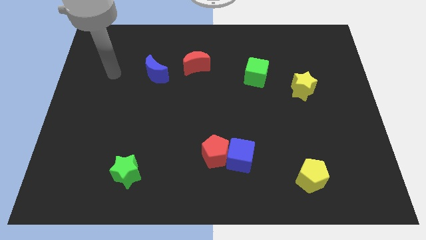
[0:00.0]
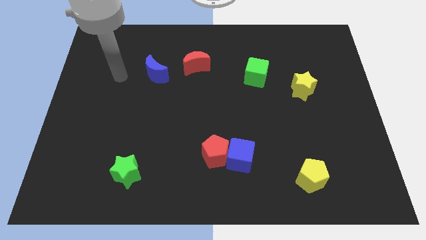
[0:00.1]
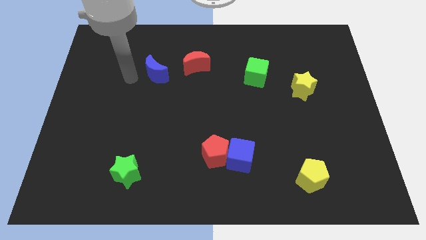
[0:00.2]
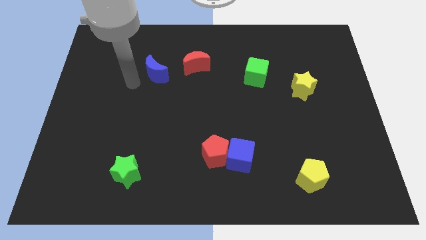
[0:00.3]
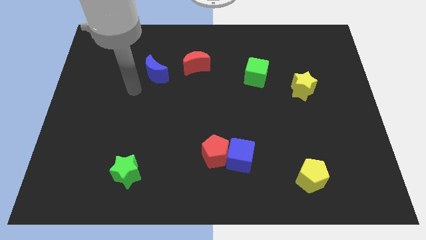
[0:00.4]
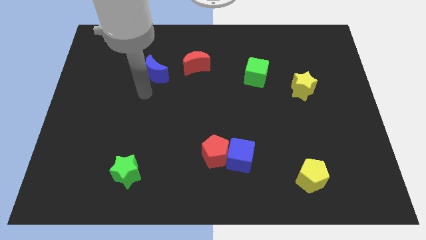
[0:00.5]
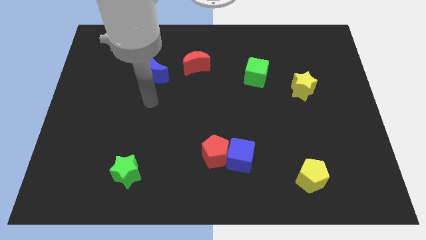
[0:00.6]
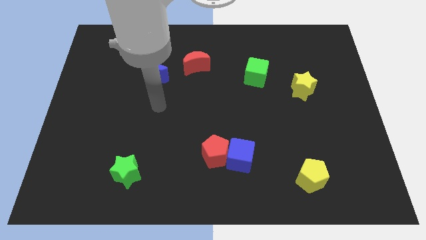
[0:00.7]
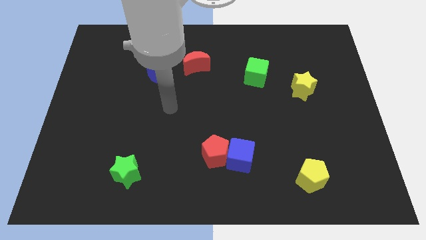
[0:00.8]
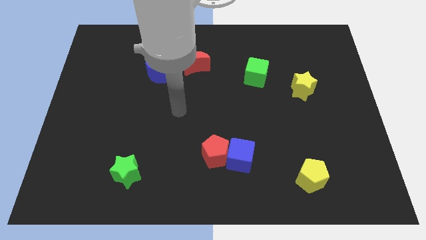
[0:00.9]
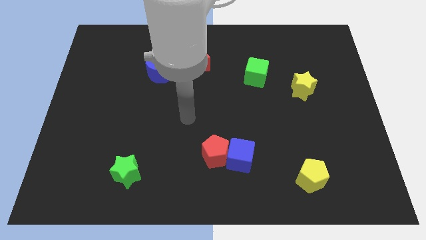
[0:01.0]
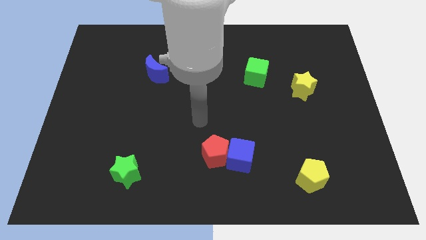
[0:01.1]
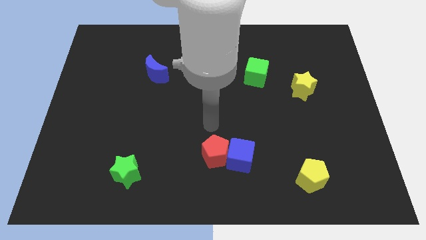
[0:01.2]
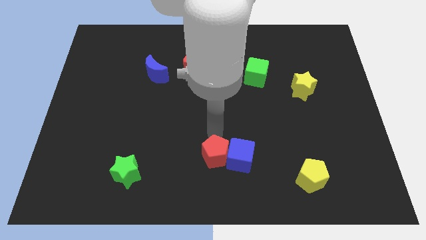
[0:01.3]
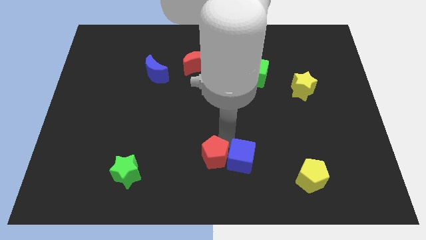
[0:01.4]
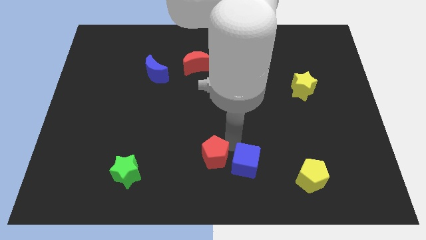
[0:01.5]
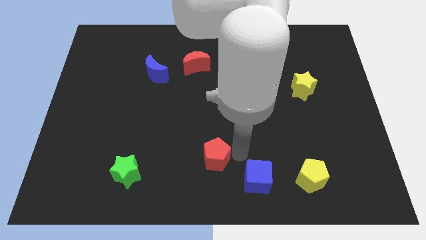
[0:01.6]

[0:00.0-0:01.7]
separate the red pentagon from the blue cube

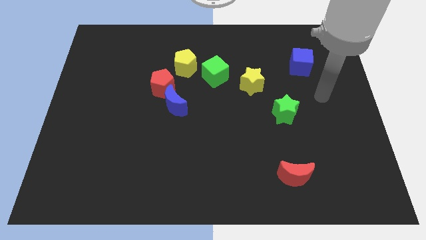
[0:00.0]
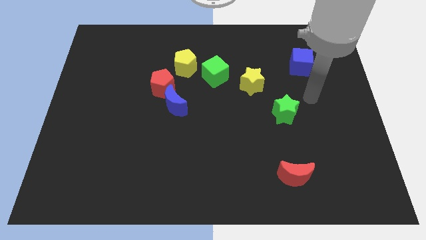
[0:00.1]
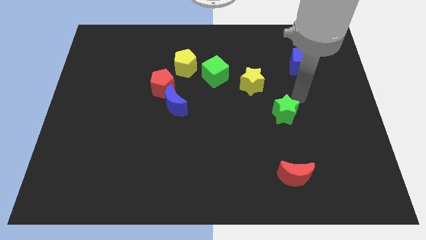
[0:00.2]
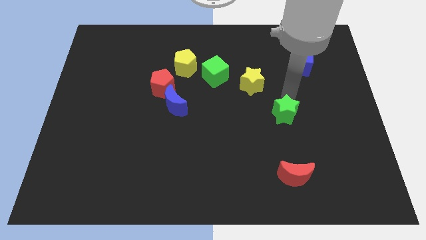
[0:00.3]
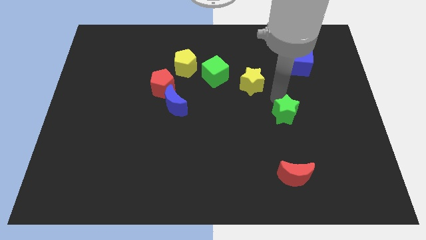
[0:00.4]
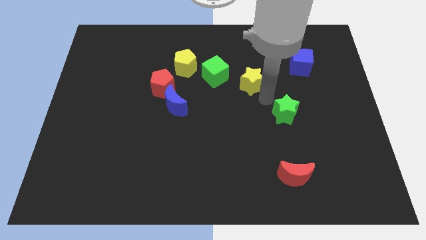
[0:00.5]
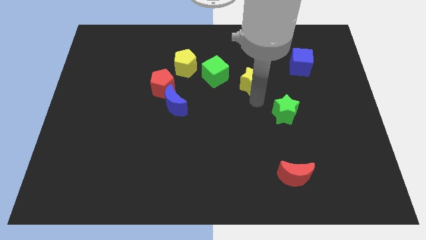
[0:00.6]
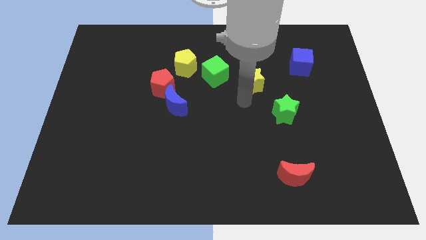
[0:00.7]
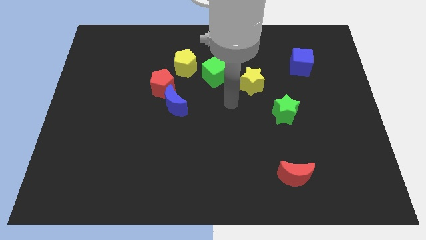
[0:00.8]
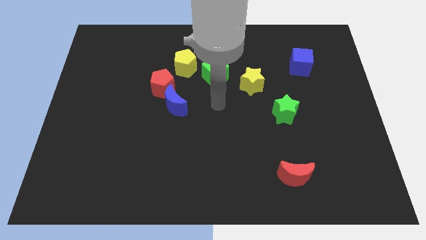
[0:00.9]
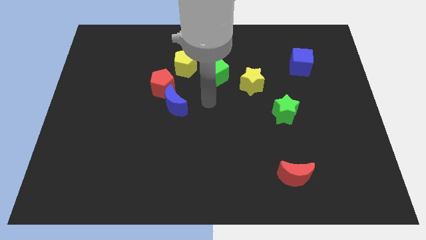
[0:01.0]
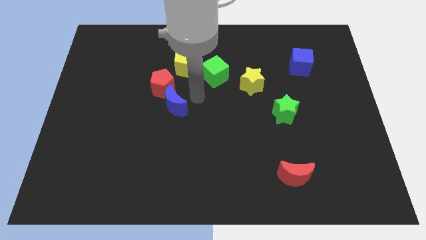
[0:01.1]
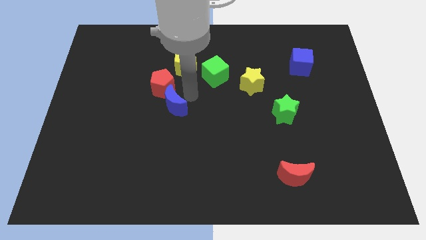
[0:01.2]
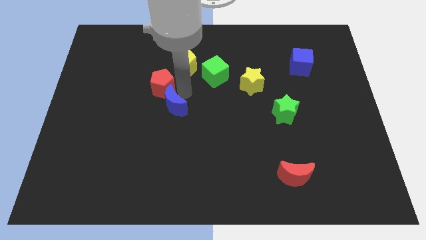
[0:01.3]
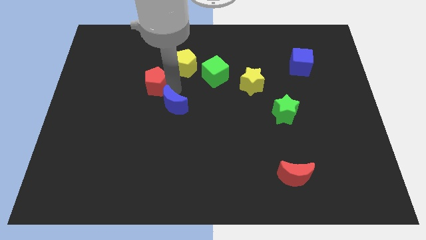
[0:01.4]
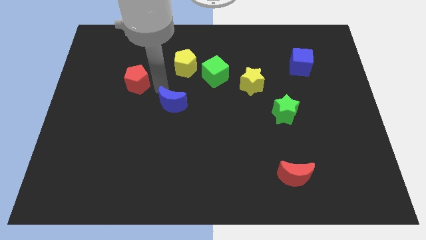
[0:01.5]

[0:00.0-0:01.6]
move the blue moon away from the red pentagon

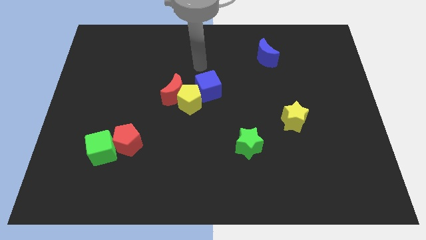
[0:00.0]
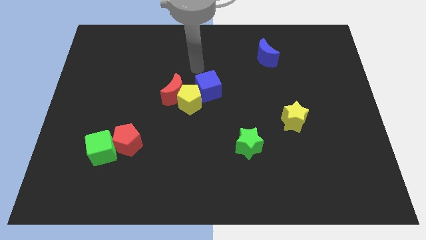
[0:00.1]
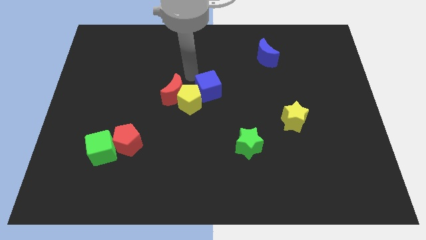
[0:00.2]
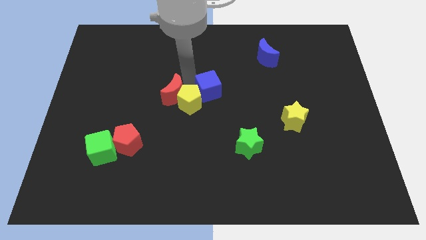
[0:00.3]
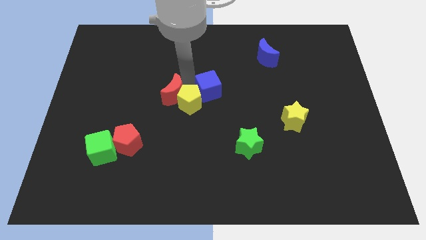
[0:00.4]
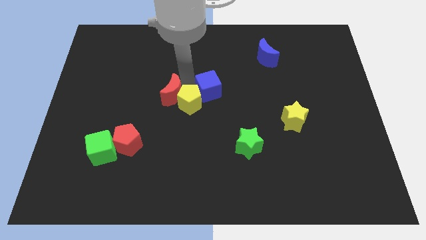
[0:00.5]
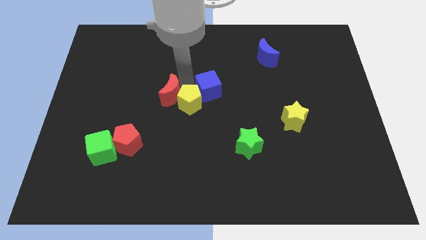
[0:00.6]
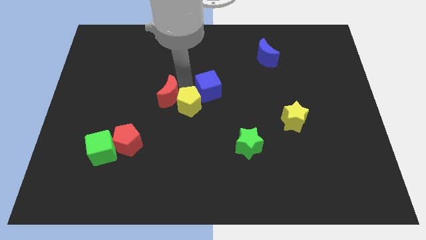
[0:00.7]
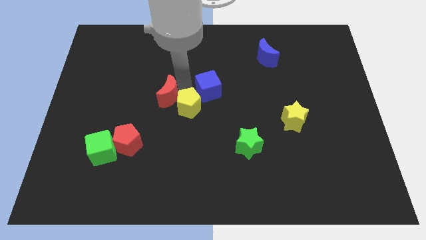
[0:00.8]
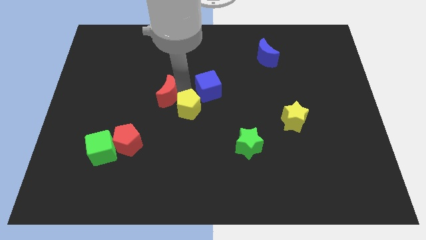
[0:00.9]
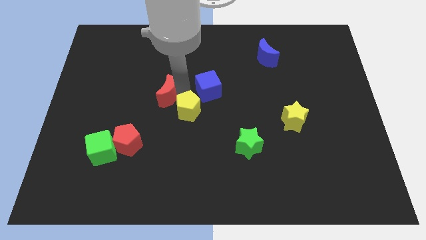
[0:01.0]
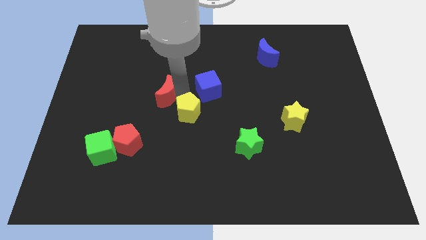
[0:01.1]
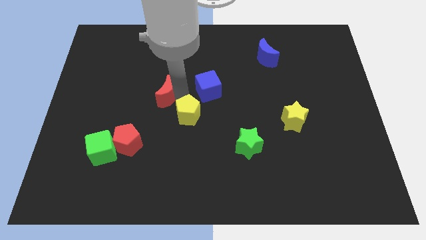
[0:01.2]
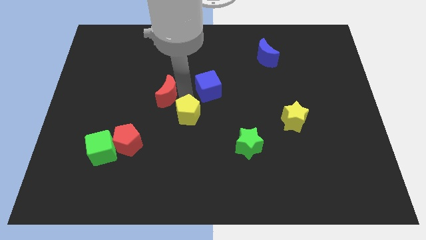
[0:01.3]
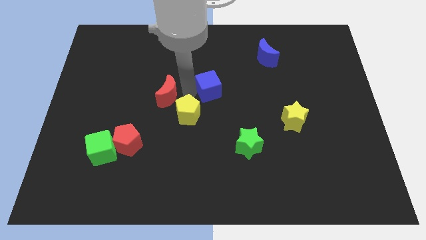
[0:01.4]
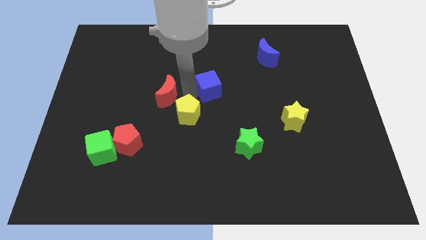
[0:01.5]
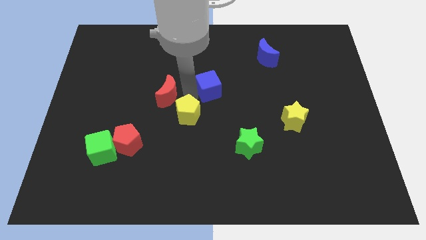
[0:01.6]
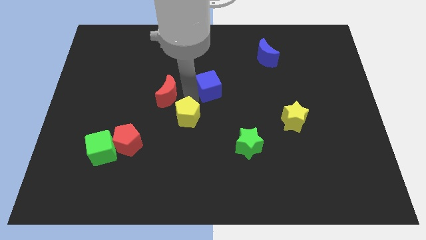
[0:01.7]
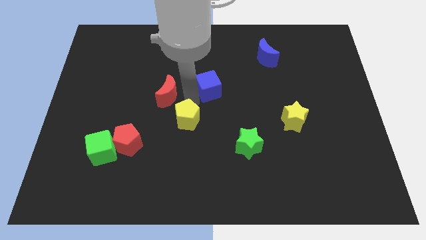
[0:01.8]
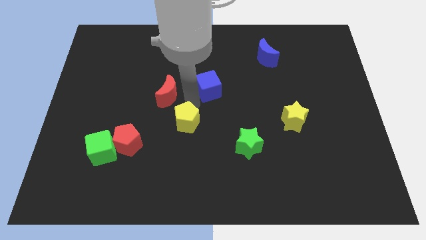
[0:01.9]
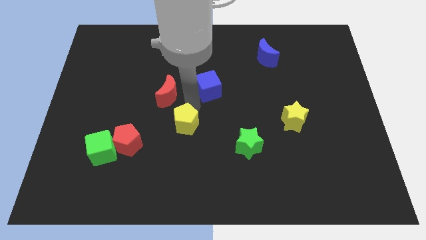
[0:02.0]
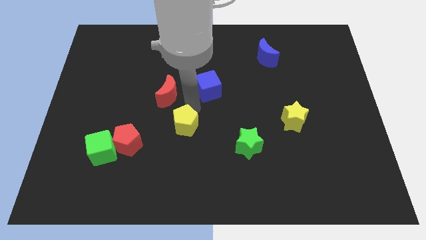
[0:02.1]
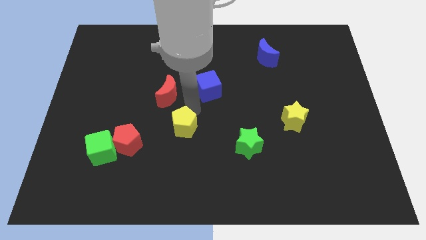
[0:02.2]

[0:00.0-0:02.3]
separate the yellow pentagon from the red moon and blue cube

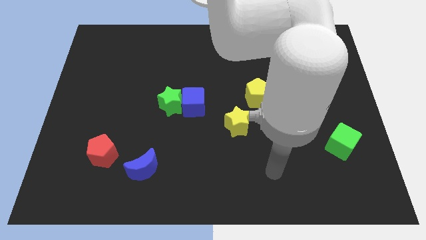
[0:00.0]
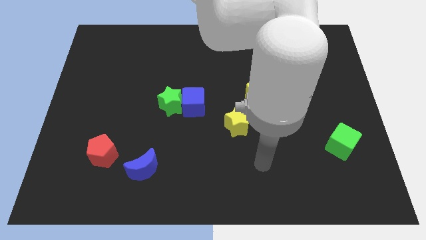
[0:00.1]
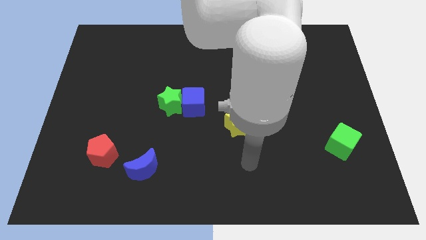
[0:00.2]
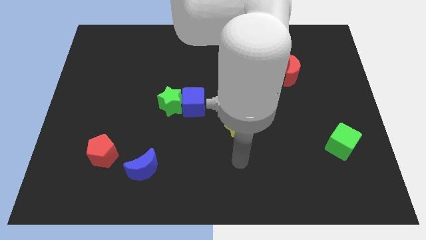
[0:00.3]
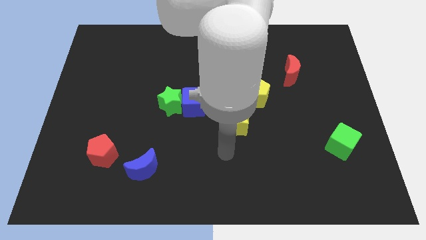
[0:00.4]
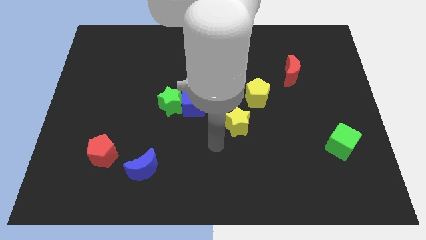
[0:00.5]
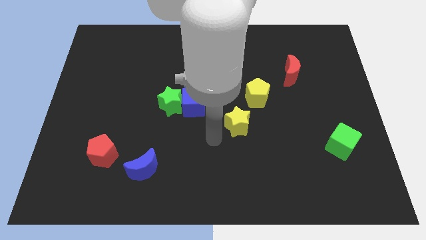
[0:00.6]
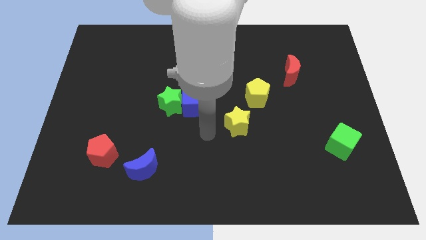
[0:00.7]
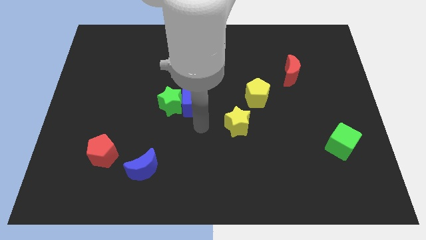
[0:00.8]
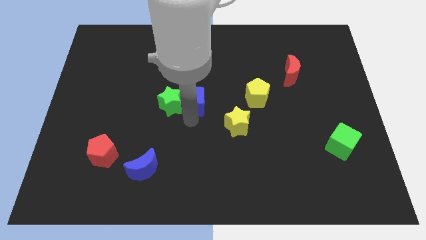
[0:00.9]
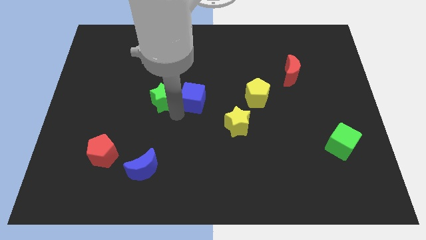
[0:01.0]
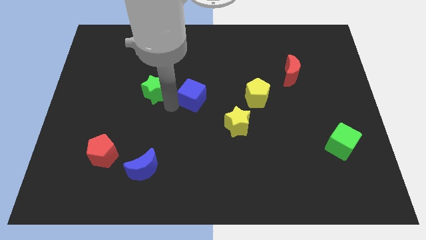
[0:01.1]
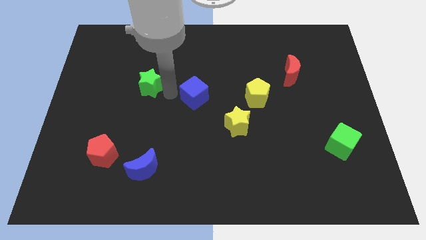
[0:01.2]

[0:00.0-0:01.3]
pull the blue cube apart from the green star

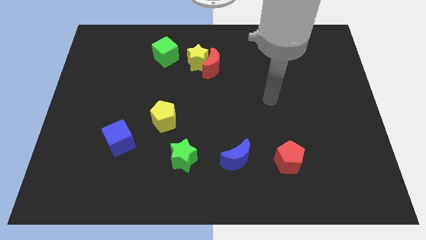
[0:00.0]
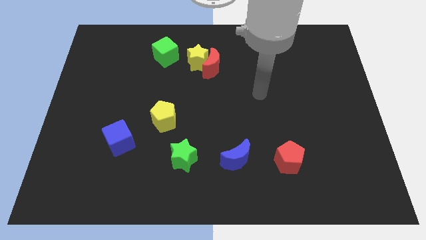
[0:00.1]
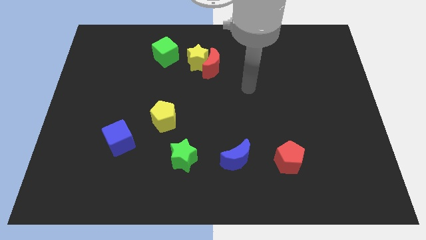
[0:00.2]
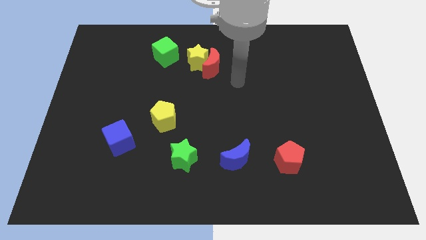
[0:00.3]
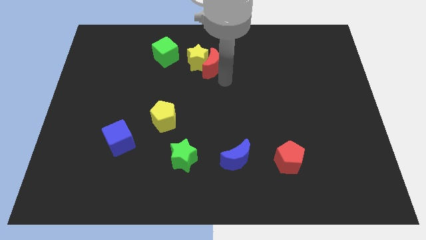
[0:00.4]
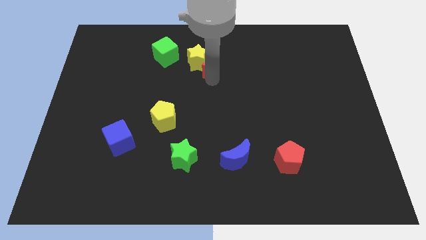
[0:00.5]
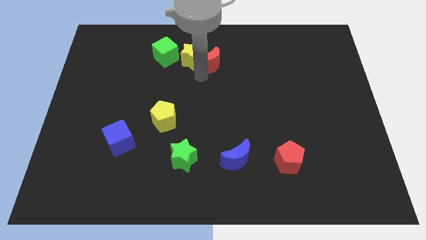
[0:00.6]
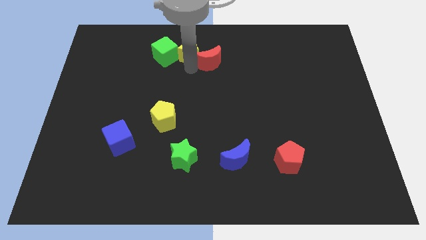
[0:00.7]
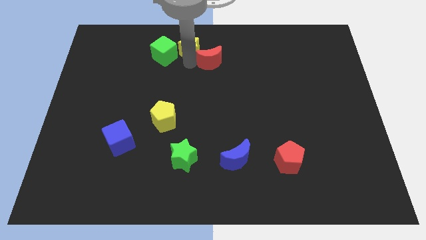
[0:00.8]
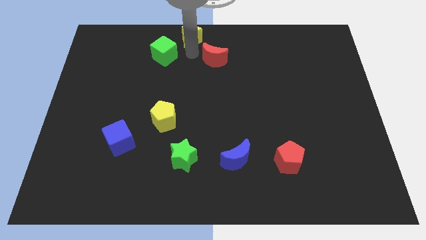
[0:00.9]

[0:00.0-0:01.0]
pull the red moon apart from the yellow star

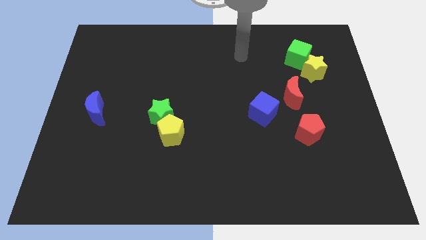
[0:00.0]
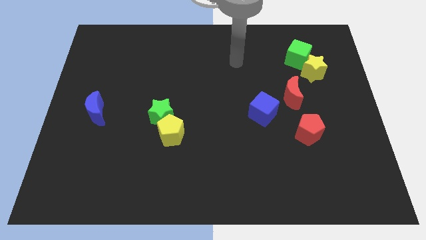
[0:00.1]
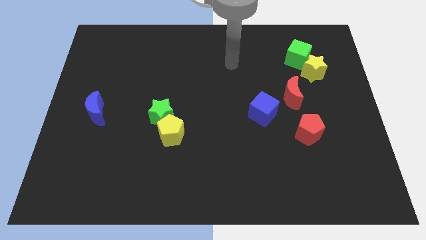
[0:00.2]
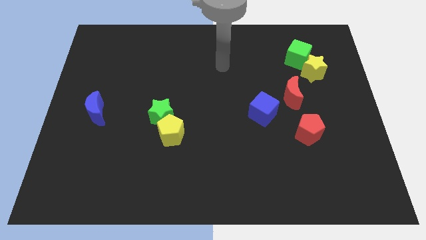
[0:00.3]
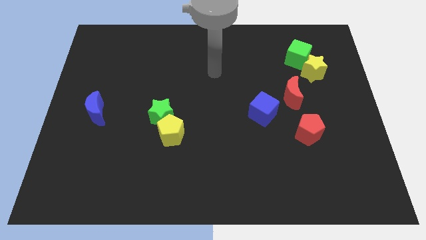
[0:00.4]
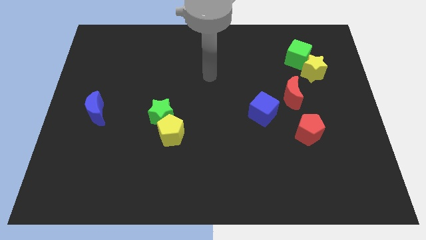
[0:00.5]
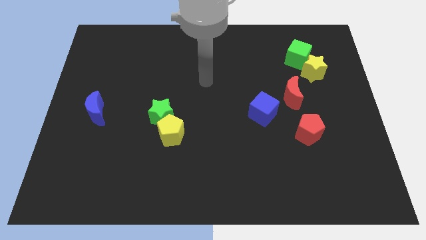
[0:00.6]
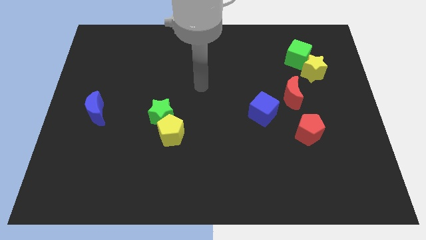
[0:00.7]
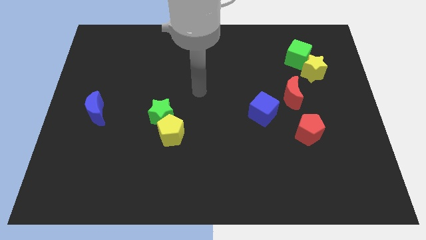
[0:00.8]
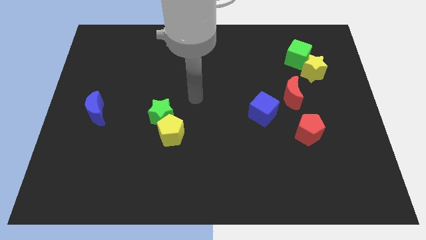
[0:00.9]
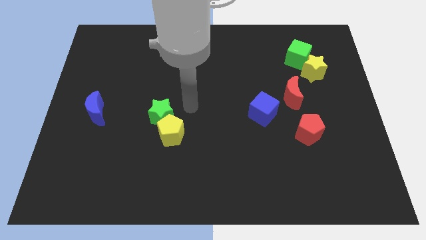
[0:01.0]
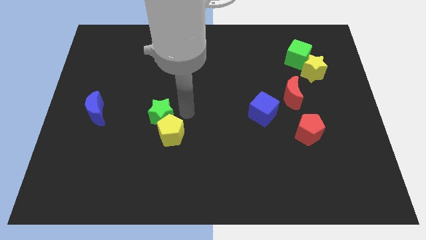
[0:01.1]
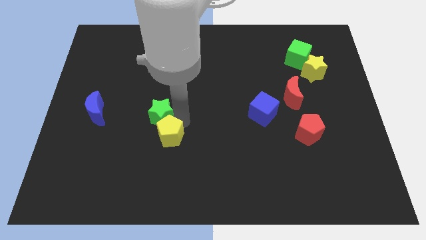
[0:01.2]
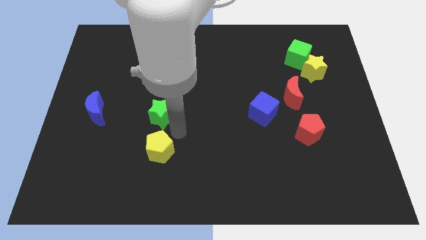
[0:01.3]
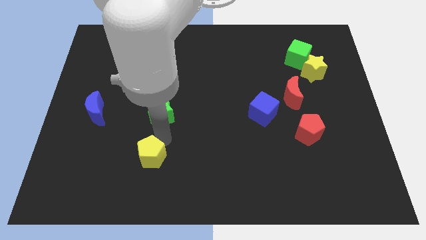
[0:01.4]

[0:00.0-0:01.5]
move the green star away from the yellow pentagon

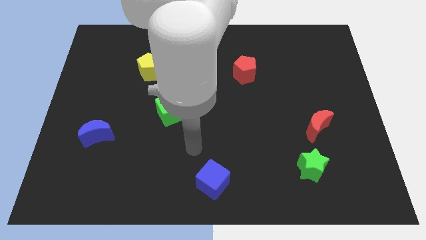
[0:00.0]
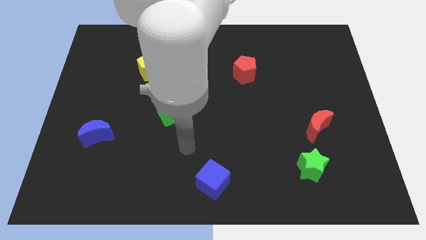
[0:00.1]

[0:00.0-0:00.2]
pull the yellow star apart from the yellow pentagon
